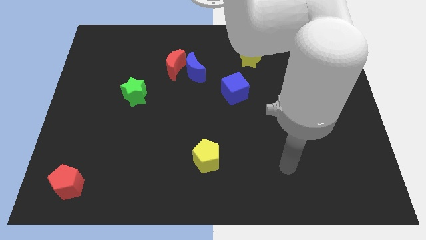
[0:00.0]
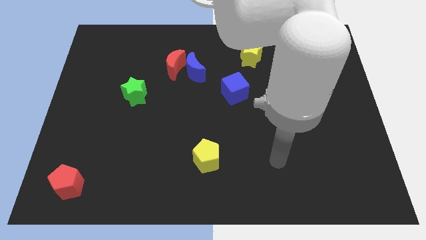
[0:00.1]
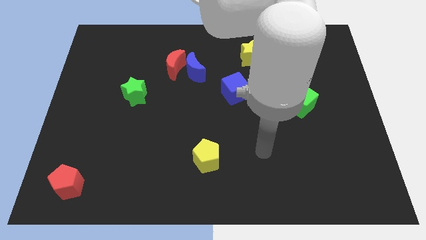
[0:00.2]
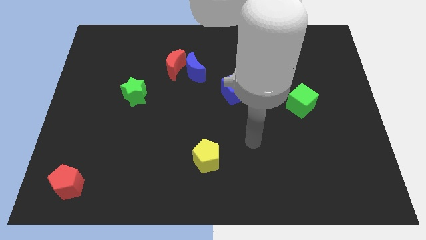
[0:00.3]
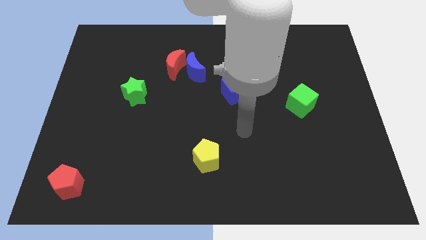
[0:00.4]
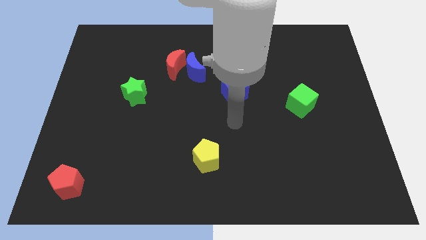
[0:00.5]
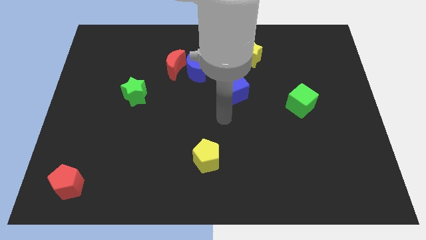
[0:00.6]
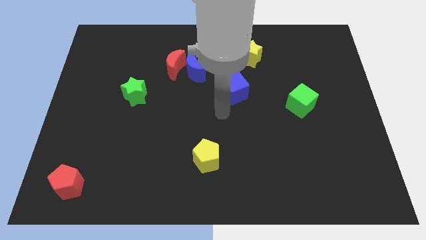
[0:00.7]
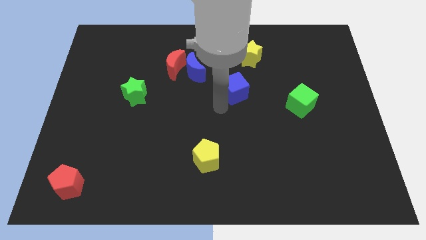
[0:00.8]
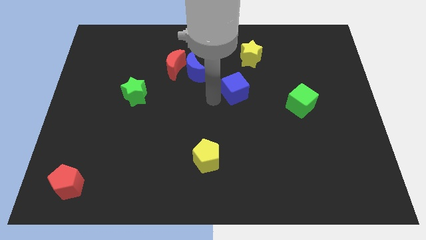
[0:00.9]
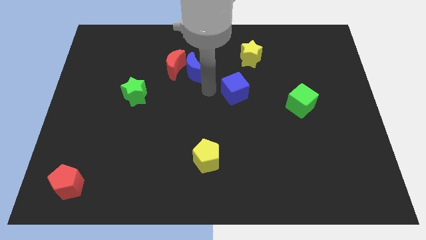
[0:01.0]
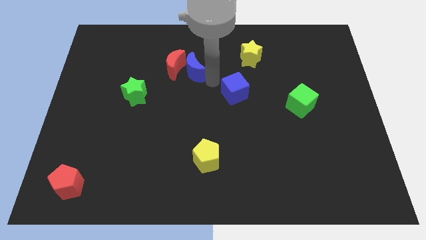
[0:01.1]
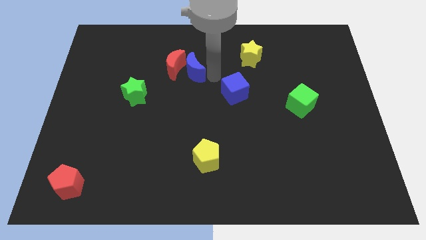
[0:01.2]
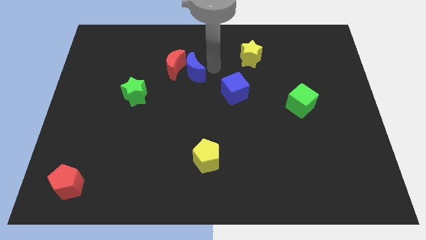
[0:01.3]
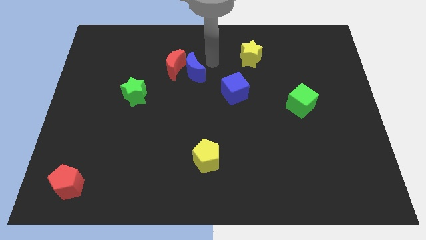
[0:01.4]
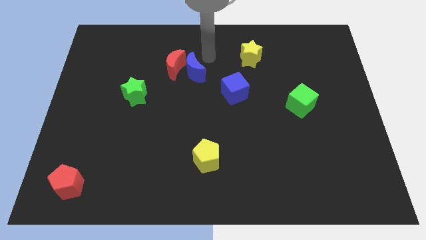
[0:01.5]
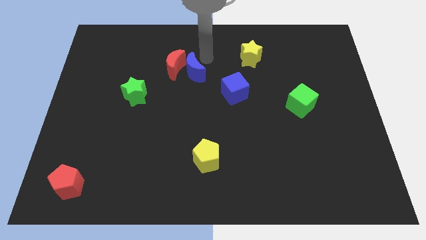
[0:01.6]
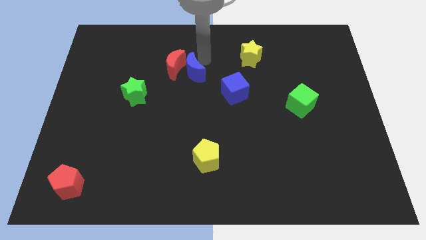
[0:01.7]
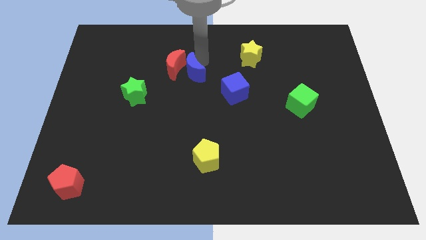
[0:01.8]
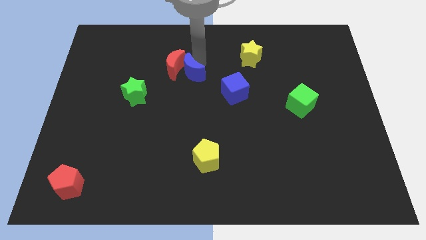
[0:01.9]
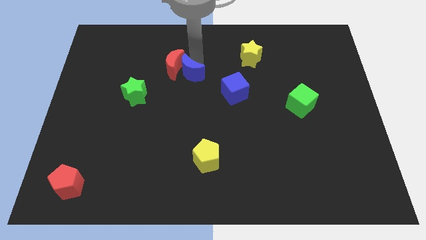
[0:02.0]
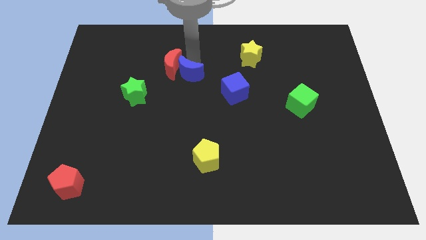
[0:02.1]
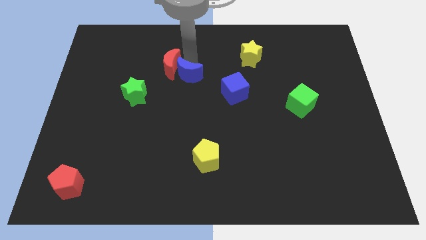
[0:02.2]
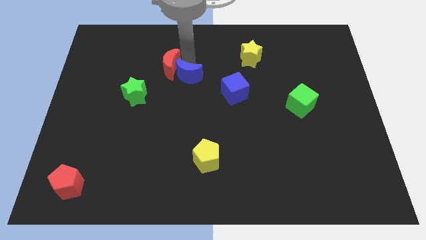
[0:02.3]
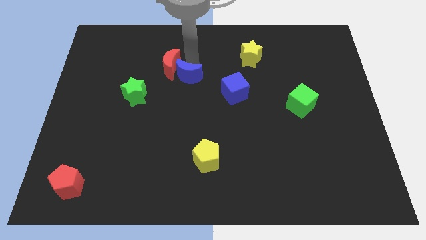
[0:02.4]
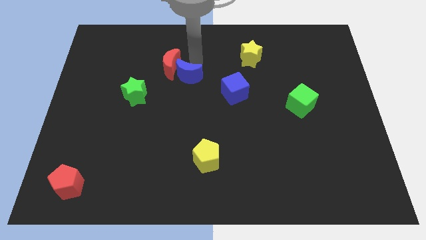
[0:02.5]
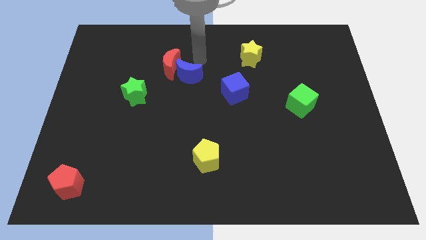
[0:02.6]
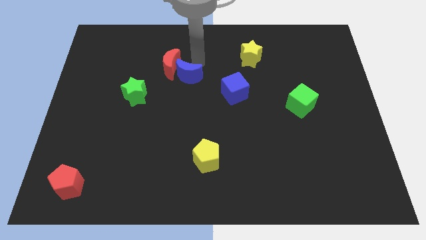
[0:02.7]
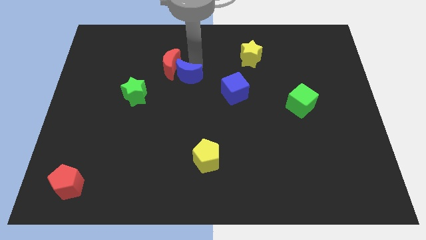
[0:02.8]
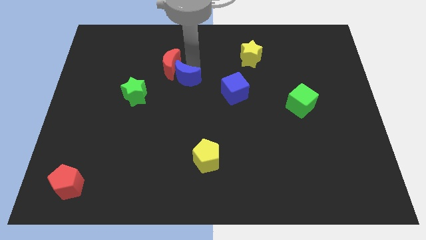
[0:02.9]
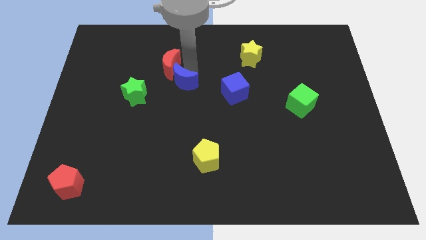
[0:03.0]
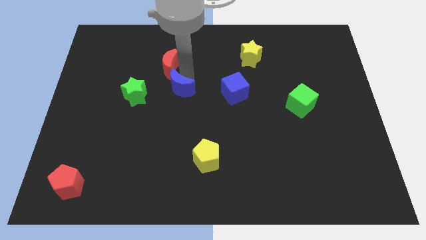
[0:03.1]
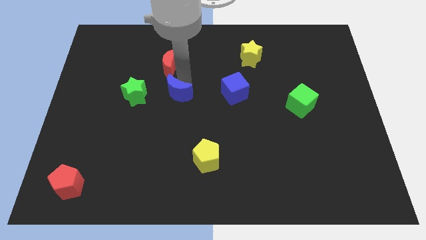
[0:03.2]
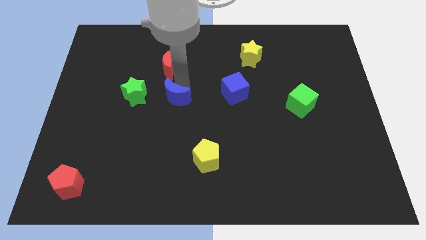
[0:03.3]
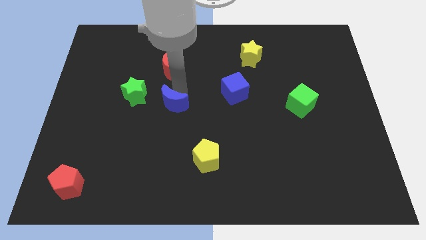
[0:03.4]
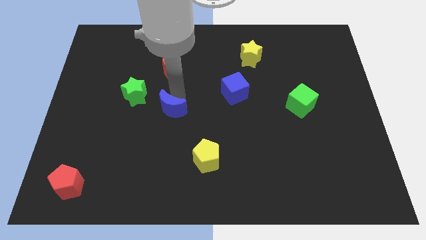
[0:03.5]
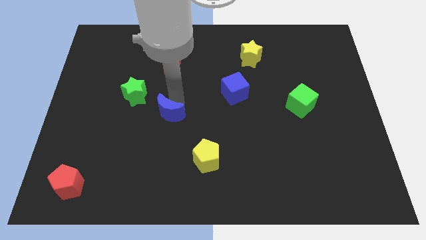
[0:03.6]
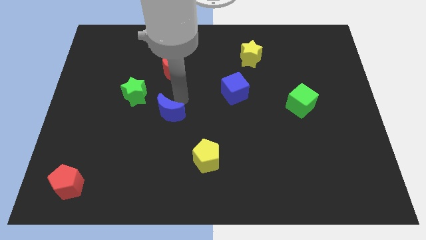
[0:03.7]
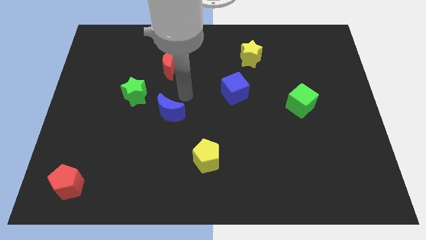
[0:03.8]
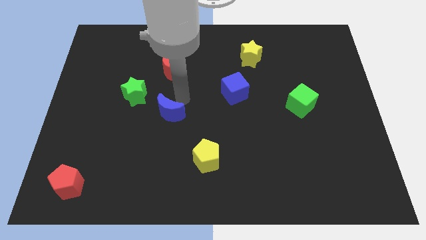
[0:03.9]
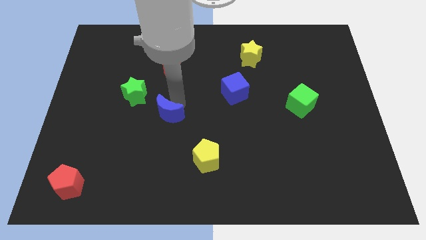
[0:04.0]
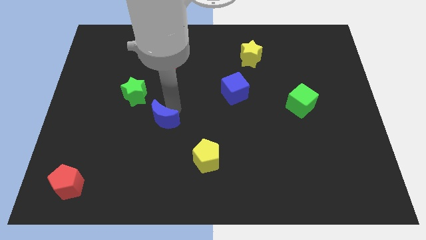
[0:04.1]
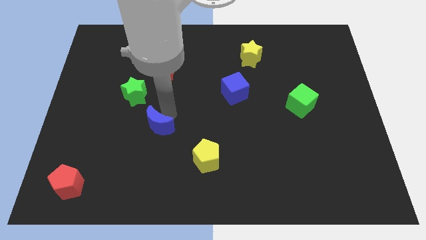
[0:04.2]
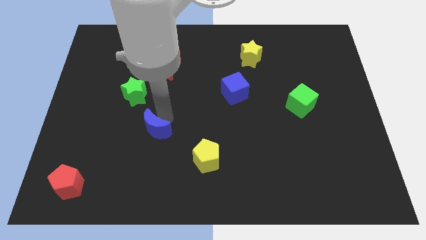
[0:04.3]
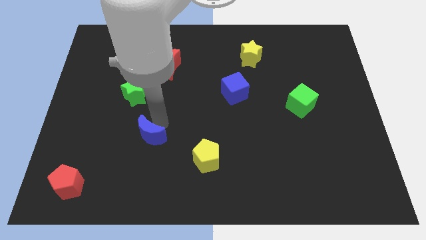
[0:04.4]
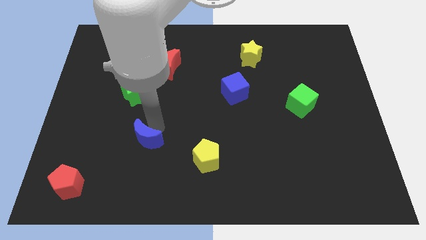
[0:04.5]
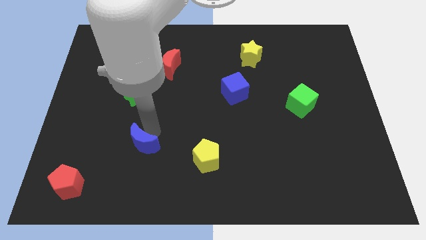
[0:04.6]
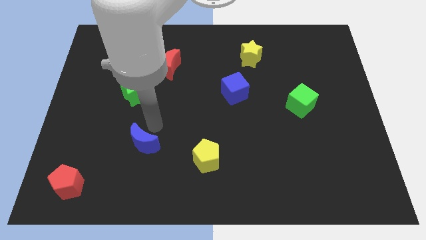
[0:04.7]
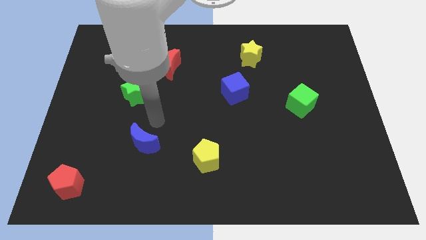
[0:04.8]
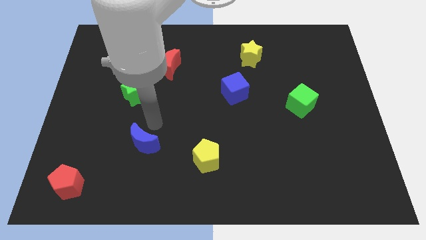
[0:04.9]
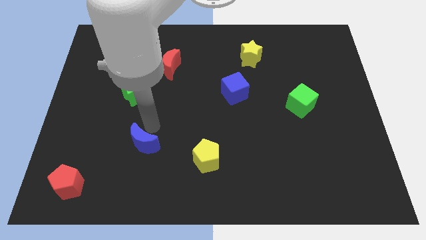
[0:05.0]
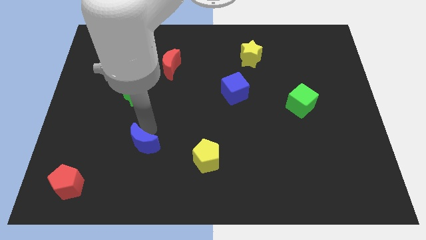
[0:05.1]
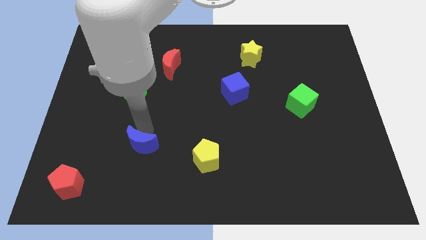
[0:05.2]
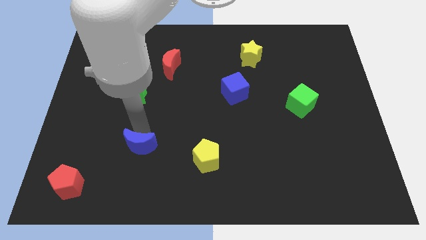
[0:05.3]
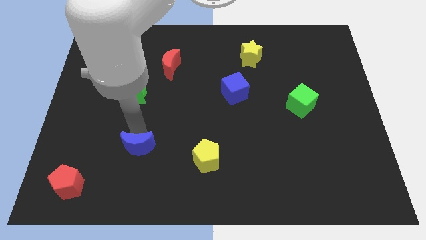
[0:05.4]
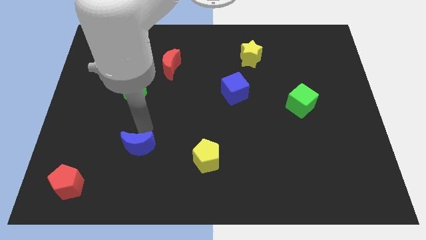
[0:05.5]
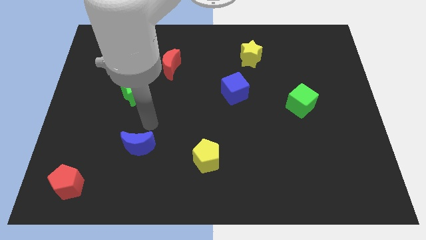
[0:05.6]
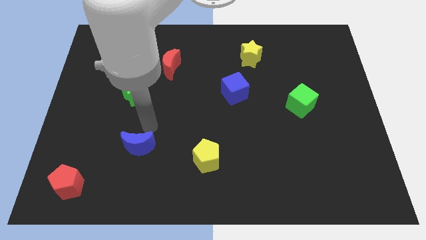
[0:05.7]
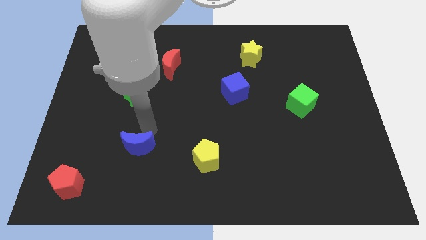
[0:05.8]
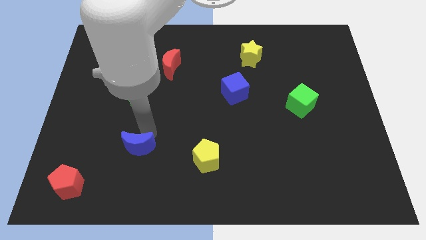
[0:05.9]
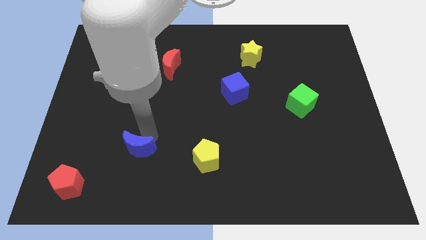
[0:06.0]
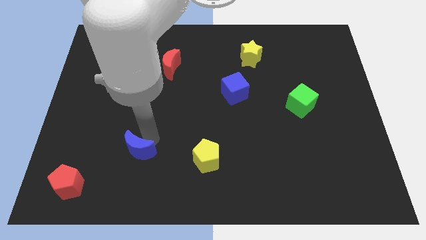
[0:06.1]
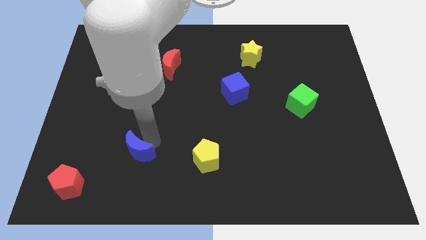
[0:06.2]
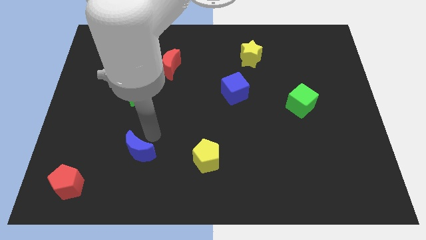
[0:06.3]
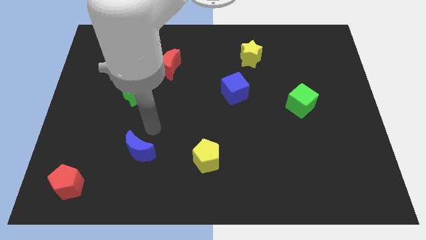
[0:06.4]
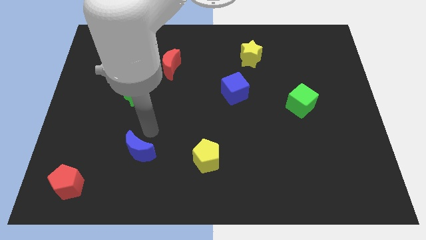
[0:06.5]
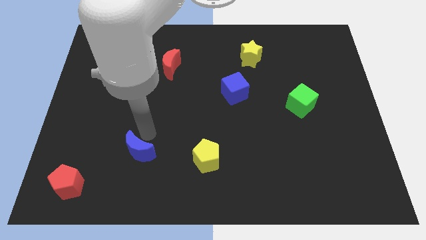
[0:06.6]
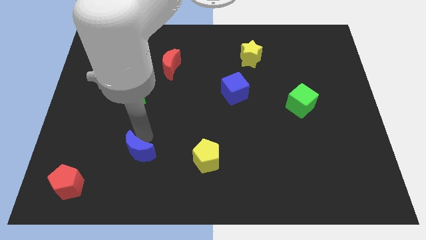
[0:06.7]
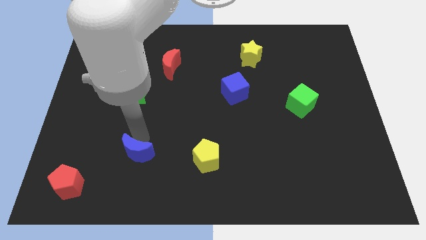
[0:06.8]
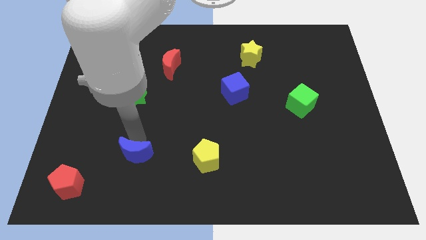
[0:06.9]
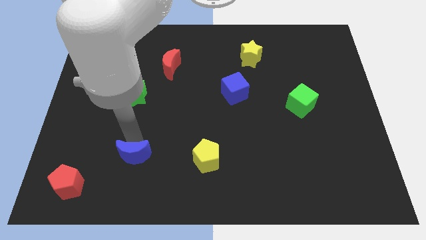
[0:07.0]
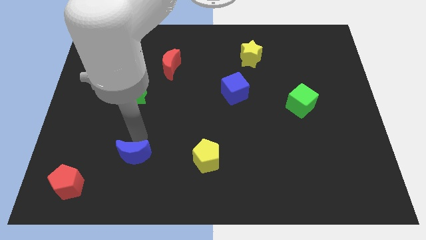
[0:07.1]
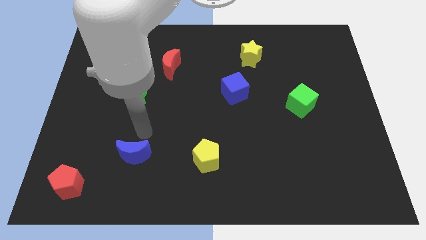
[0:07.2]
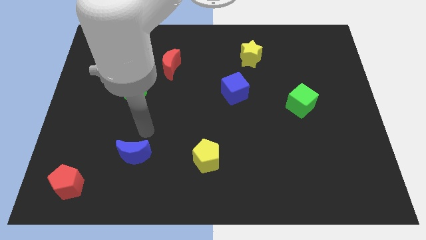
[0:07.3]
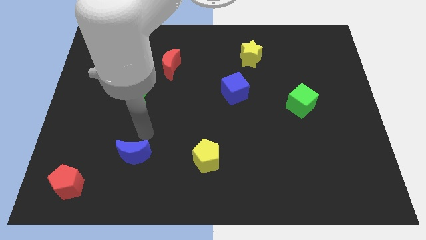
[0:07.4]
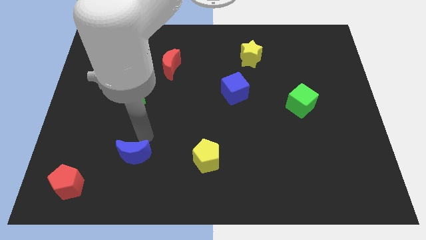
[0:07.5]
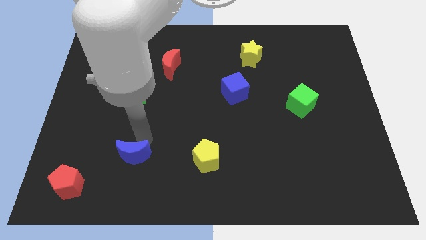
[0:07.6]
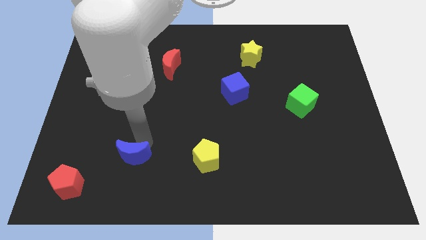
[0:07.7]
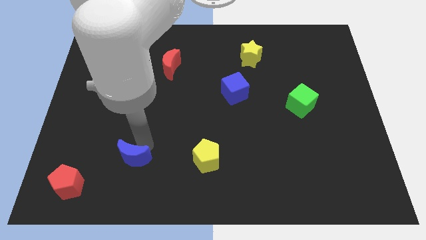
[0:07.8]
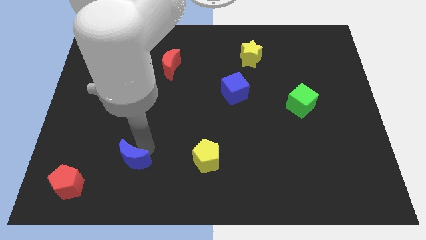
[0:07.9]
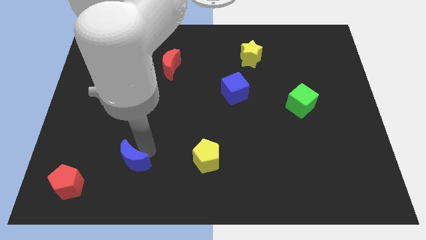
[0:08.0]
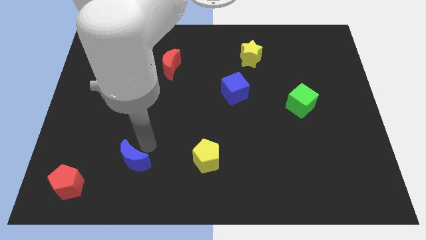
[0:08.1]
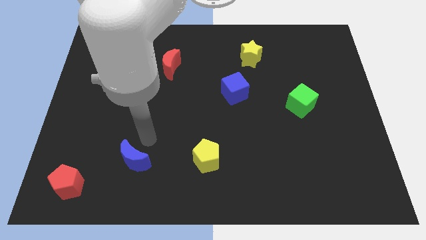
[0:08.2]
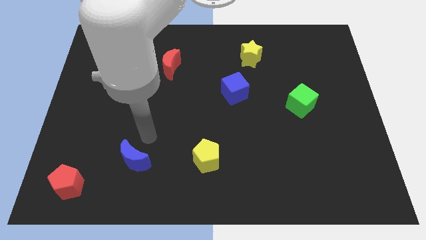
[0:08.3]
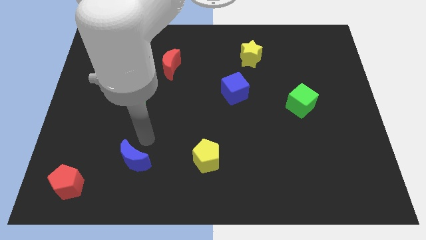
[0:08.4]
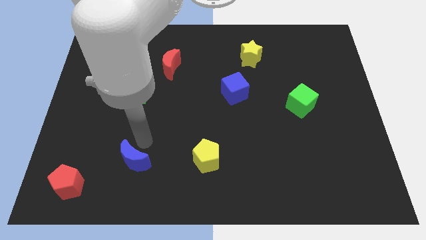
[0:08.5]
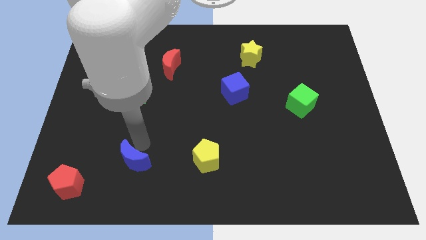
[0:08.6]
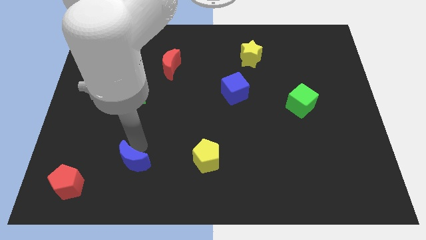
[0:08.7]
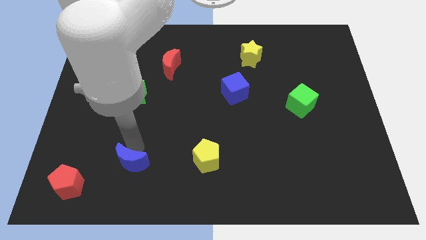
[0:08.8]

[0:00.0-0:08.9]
move the blue moon to the right side of the red pentagon
